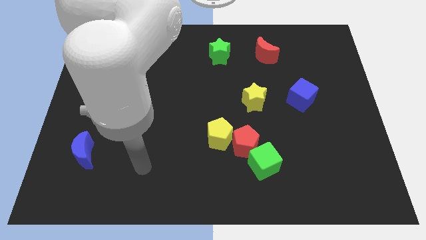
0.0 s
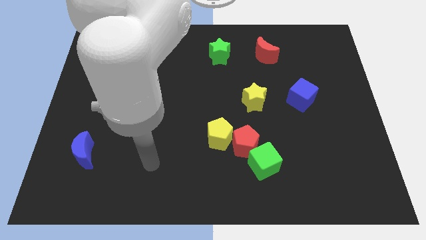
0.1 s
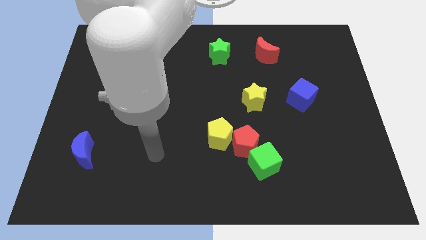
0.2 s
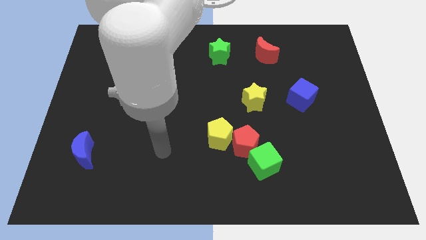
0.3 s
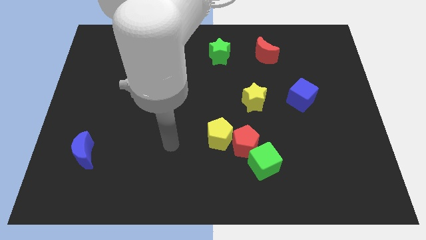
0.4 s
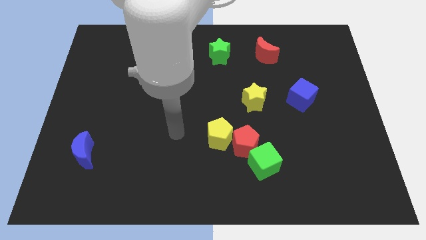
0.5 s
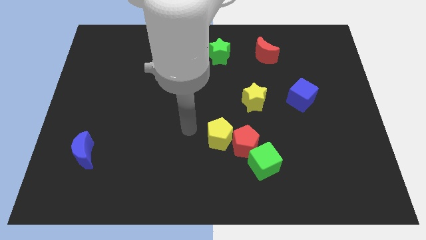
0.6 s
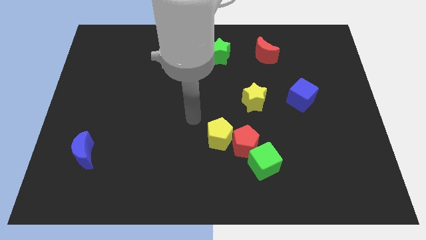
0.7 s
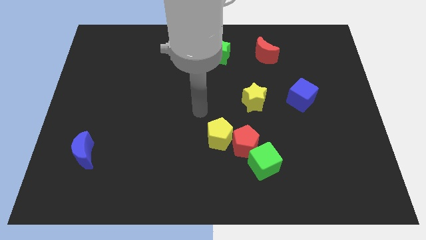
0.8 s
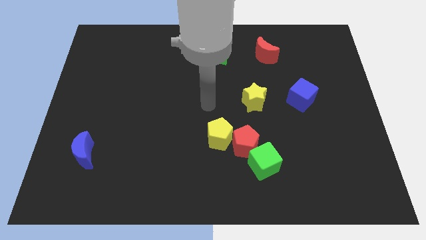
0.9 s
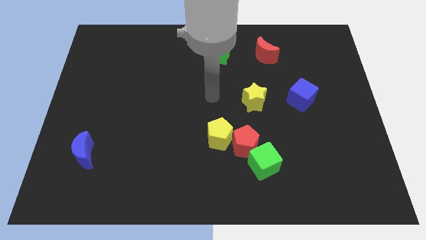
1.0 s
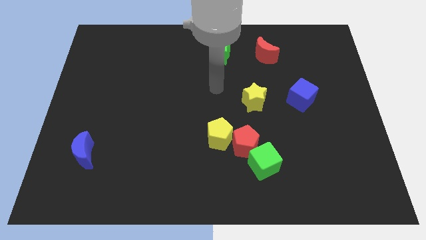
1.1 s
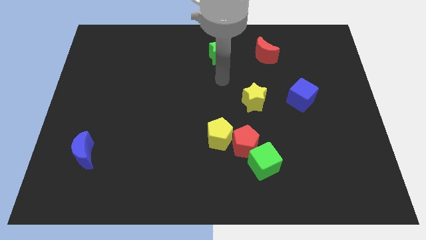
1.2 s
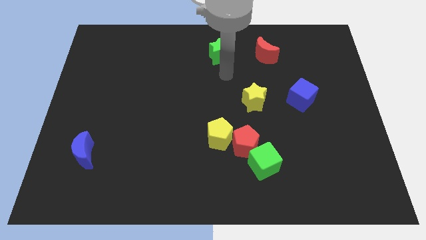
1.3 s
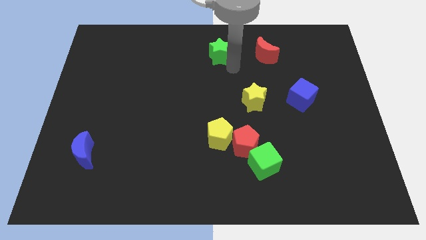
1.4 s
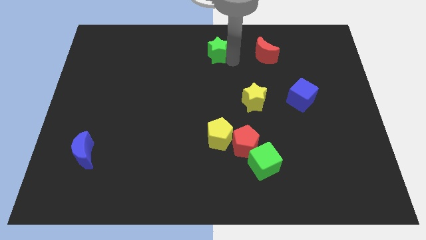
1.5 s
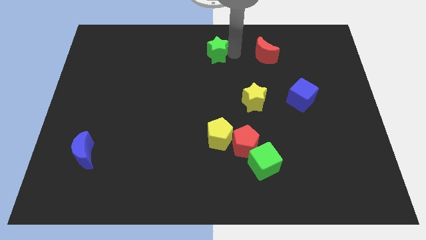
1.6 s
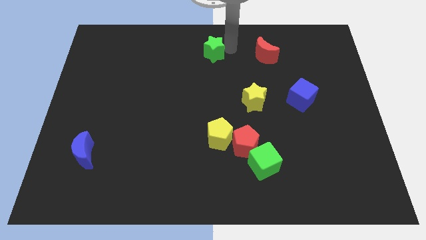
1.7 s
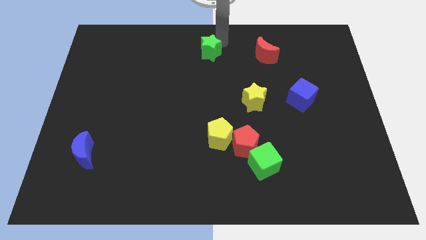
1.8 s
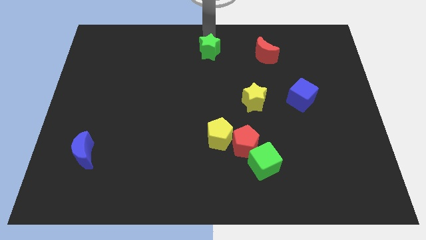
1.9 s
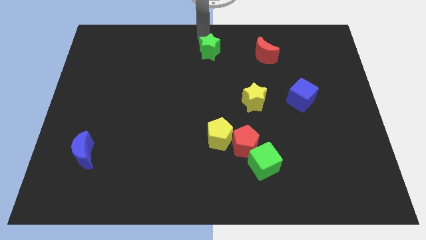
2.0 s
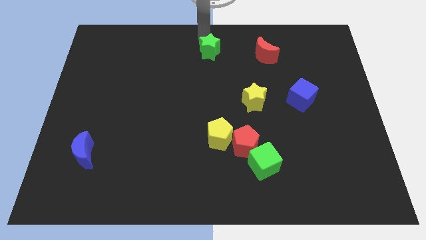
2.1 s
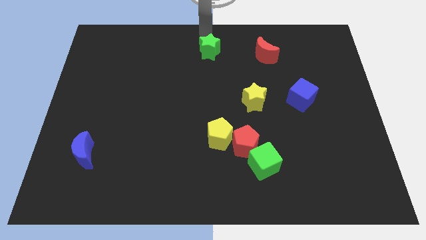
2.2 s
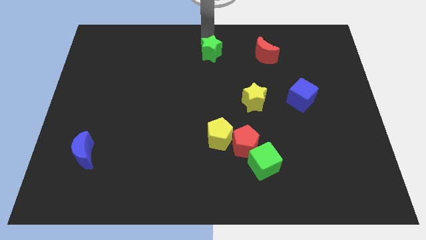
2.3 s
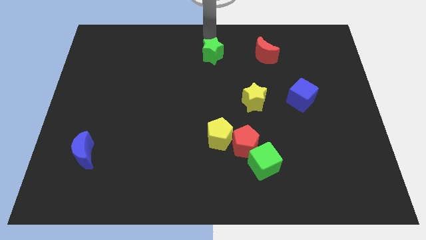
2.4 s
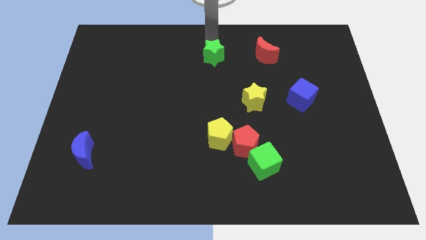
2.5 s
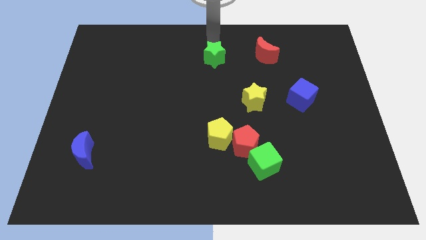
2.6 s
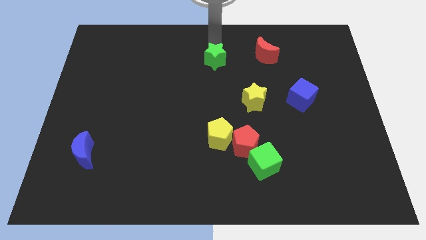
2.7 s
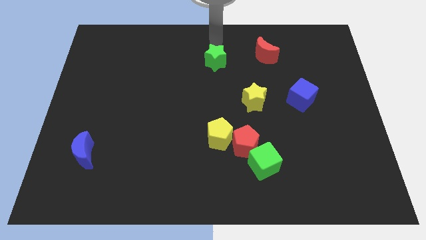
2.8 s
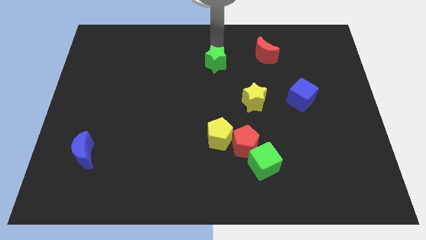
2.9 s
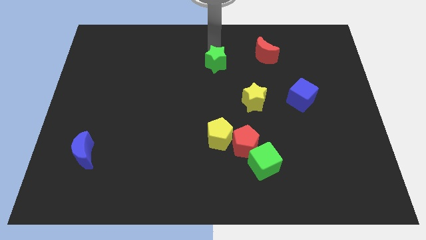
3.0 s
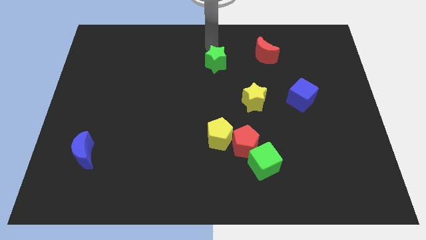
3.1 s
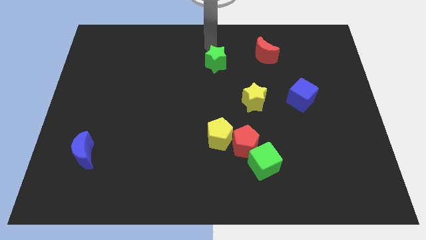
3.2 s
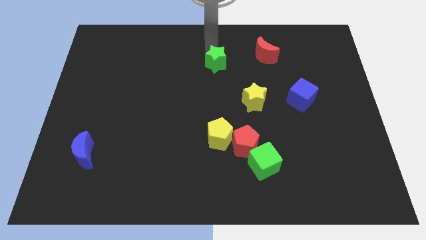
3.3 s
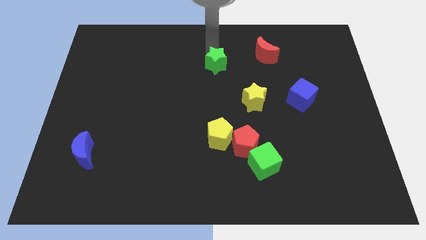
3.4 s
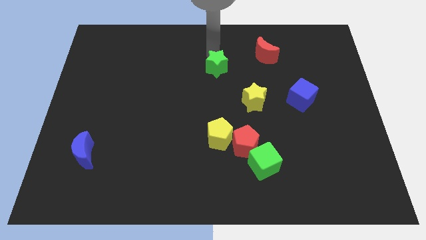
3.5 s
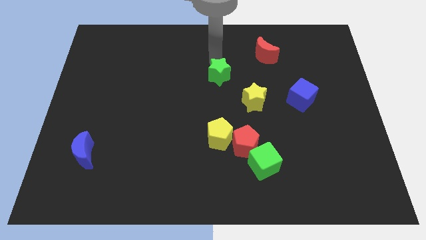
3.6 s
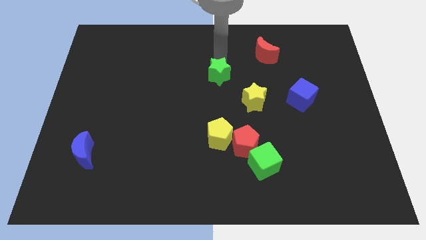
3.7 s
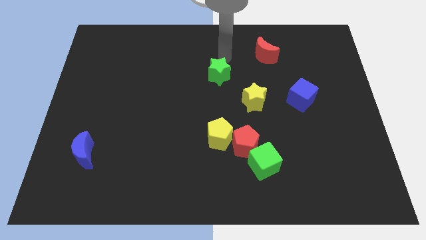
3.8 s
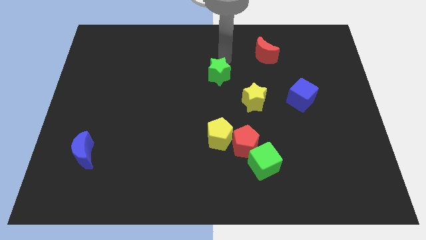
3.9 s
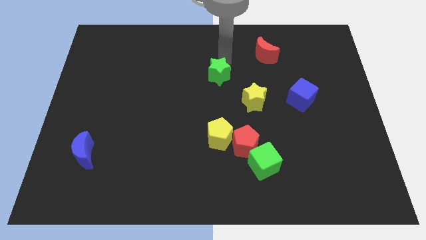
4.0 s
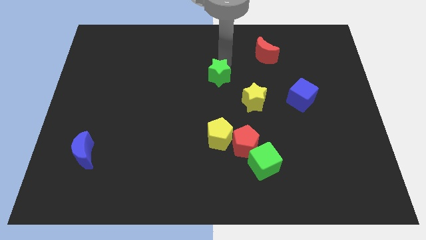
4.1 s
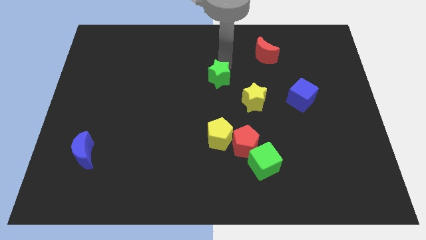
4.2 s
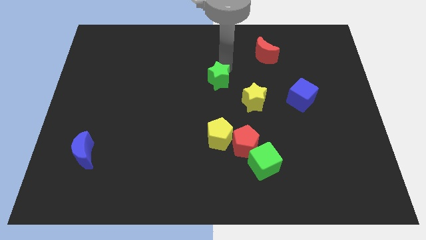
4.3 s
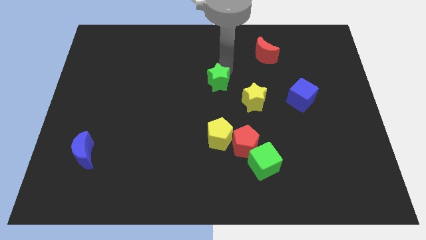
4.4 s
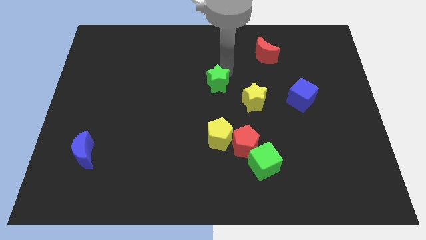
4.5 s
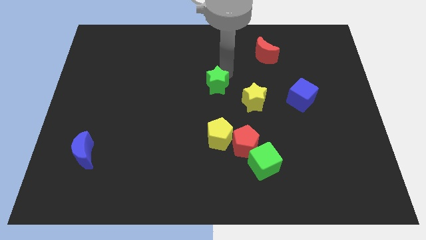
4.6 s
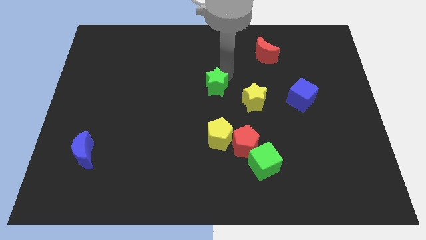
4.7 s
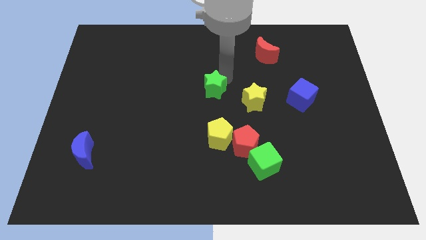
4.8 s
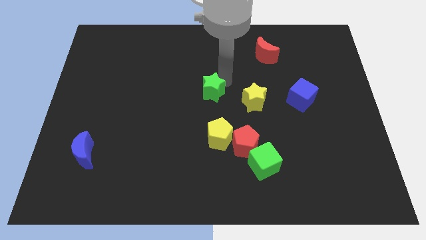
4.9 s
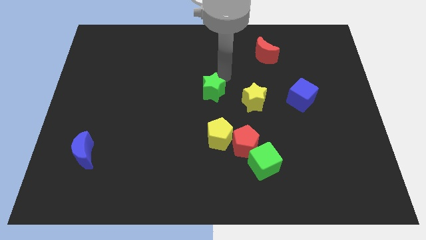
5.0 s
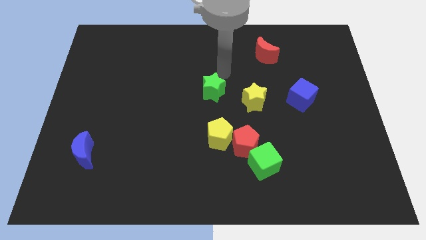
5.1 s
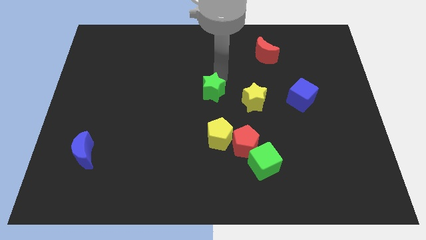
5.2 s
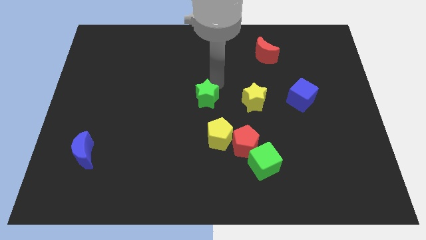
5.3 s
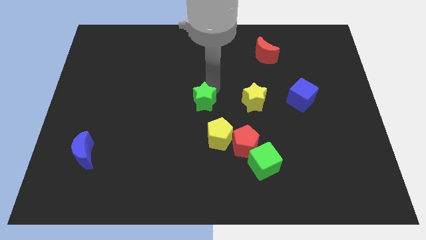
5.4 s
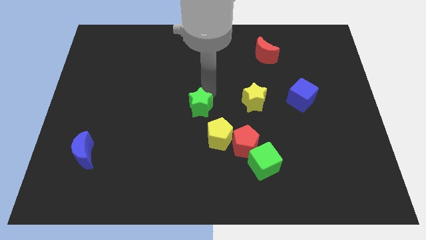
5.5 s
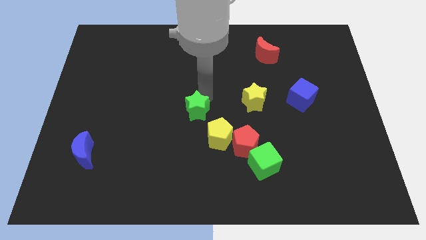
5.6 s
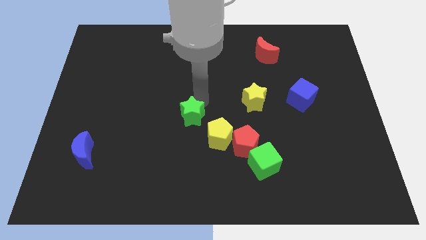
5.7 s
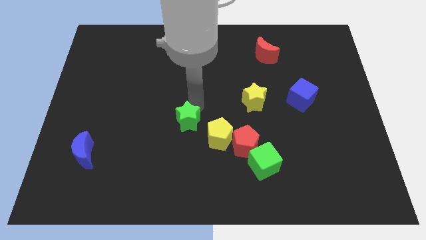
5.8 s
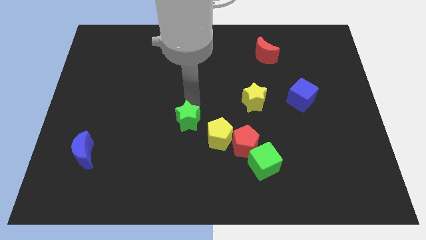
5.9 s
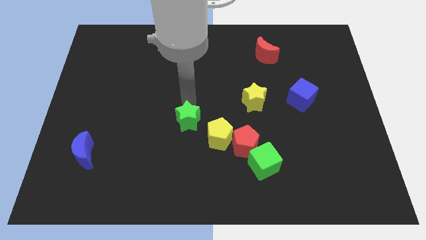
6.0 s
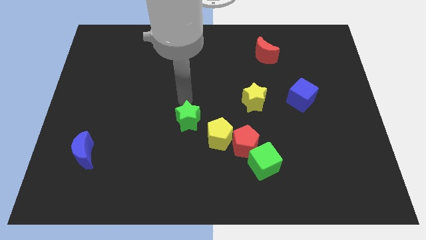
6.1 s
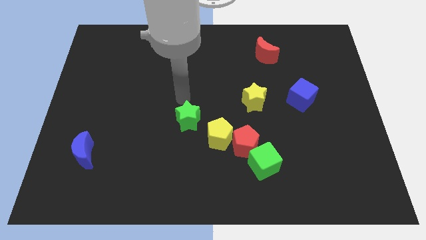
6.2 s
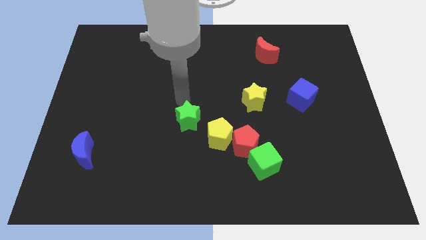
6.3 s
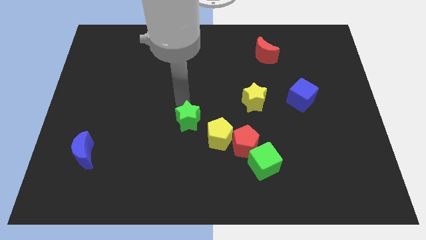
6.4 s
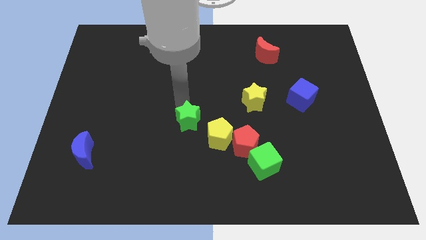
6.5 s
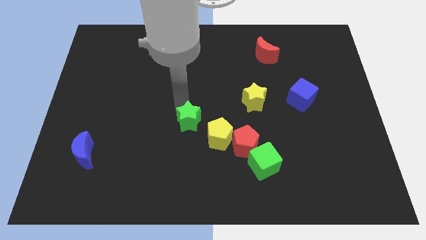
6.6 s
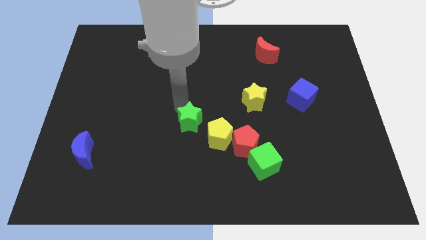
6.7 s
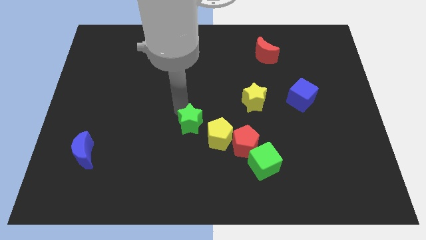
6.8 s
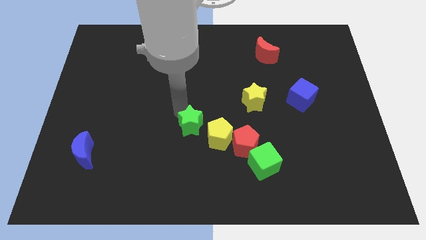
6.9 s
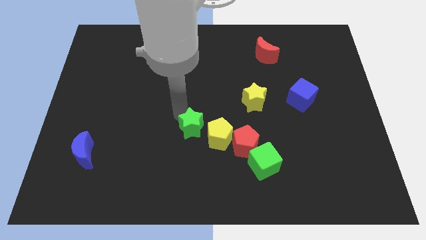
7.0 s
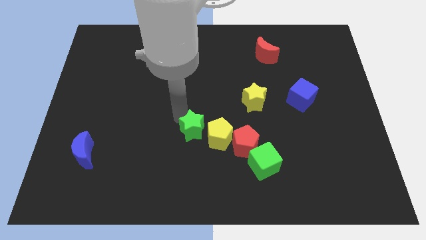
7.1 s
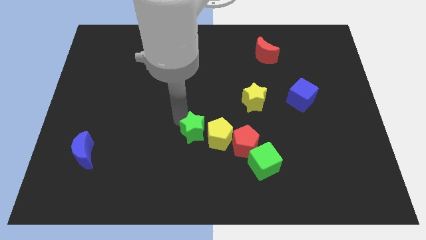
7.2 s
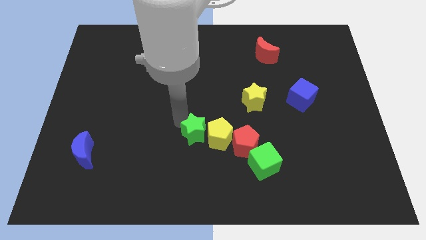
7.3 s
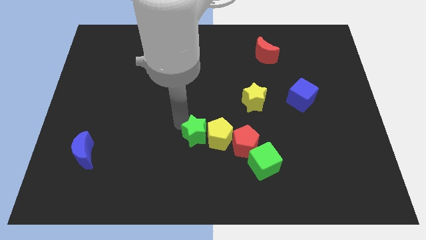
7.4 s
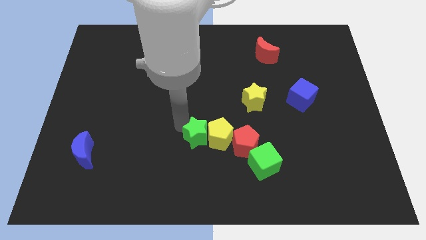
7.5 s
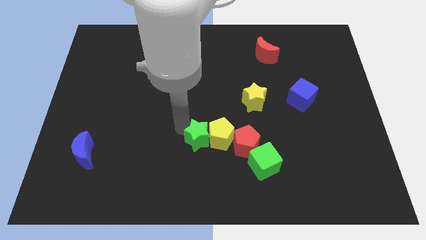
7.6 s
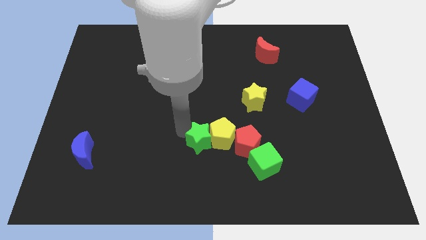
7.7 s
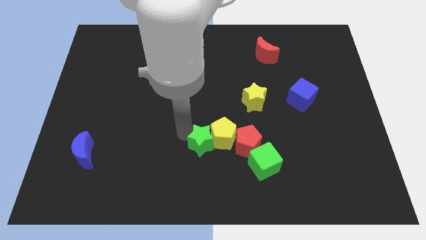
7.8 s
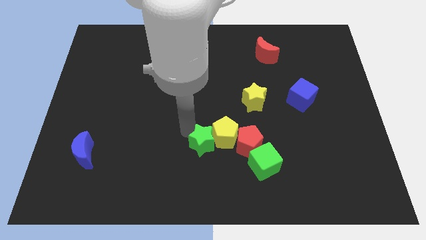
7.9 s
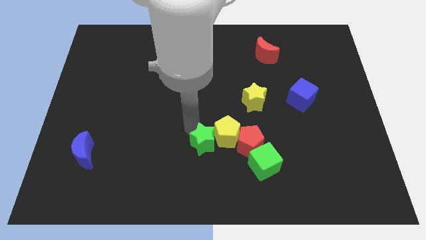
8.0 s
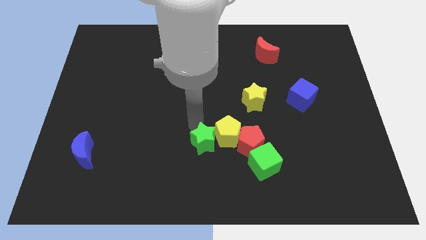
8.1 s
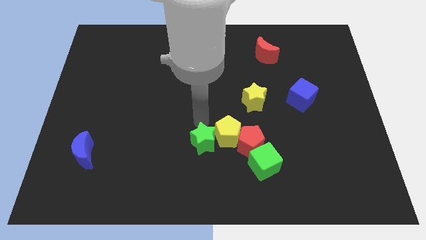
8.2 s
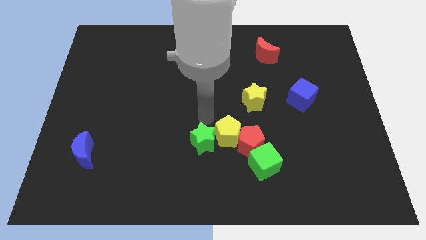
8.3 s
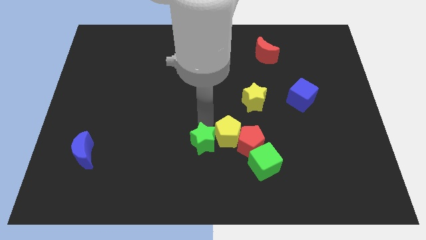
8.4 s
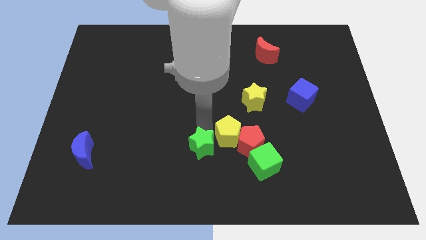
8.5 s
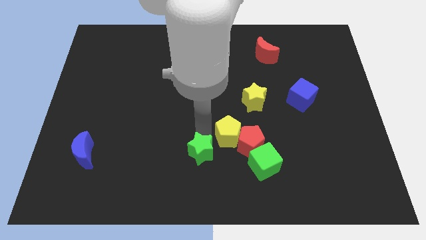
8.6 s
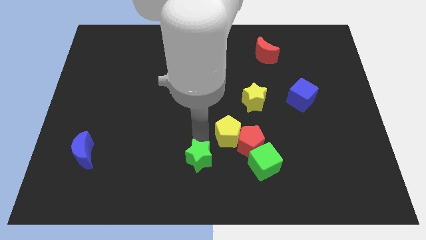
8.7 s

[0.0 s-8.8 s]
put the green star to the bottom
